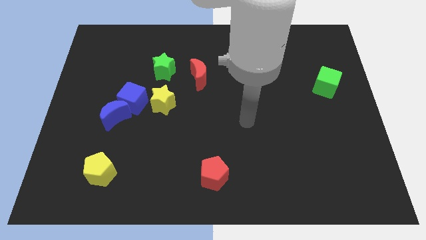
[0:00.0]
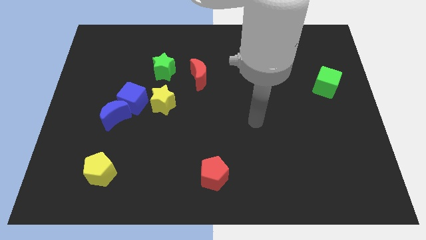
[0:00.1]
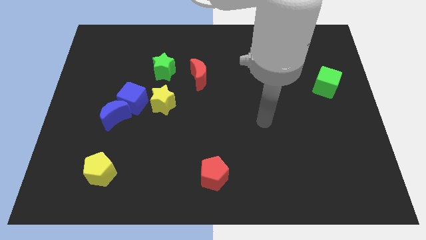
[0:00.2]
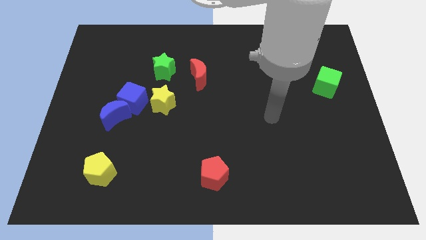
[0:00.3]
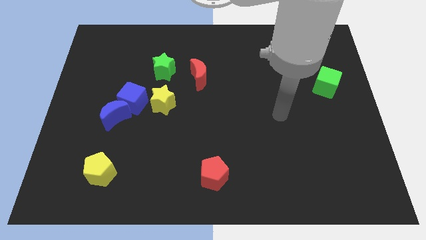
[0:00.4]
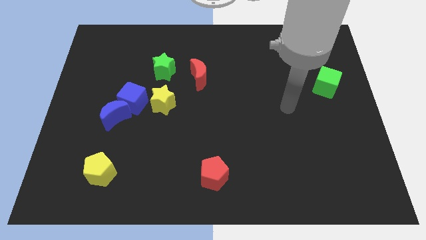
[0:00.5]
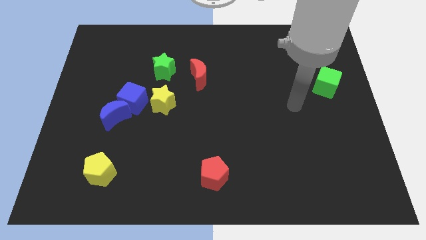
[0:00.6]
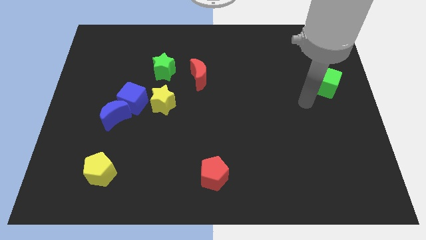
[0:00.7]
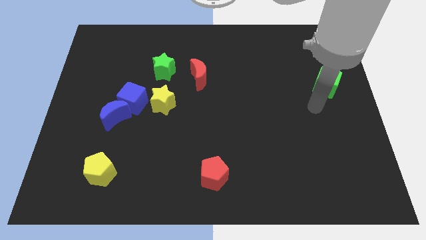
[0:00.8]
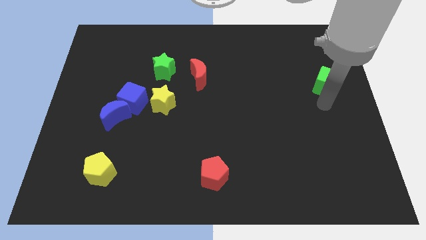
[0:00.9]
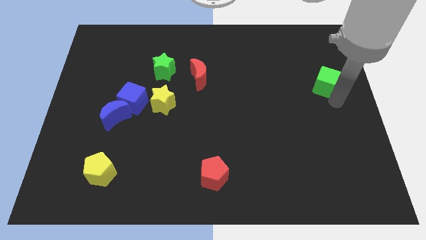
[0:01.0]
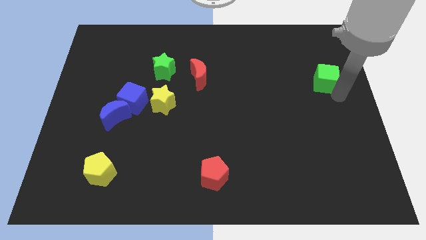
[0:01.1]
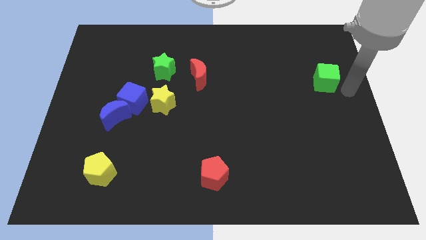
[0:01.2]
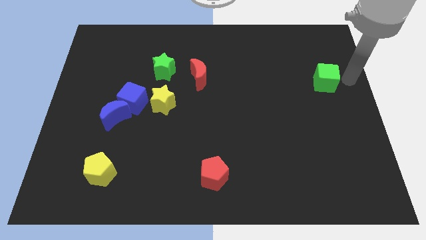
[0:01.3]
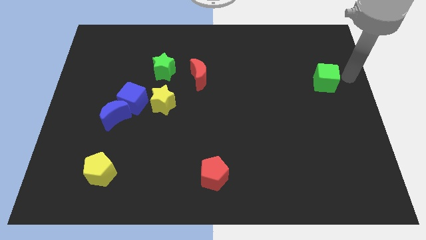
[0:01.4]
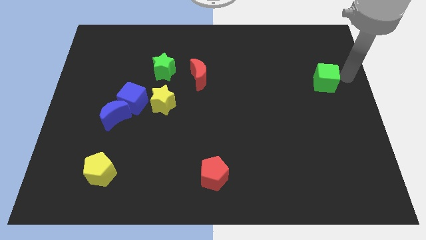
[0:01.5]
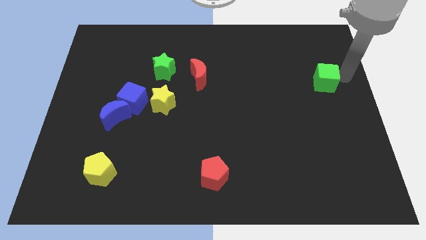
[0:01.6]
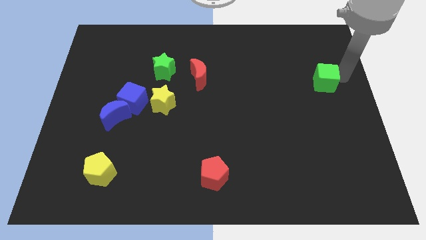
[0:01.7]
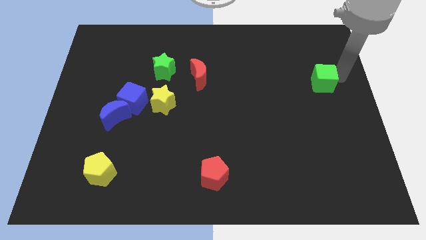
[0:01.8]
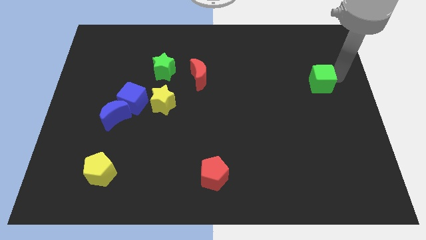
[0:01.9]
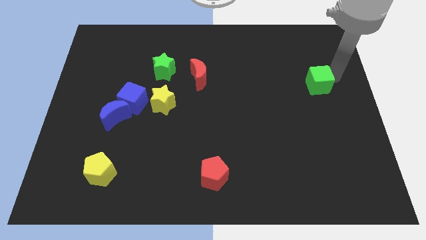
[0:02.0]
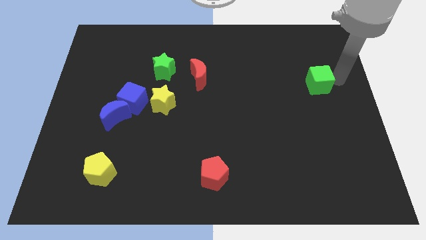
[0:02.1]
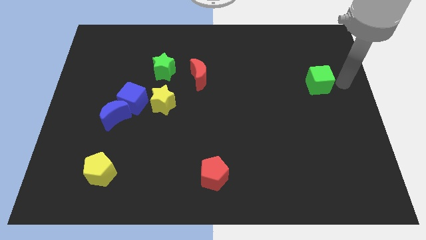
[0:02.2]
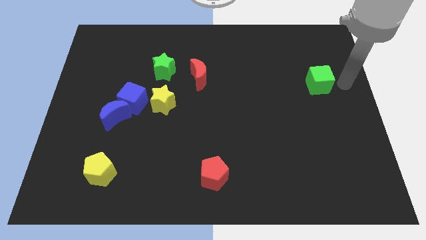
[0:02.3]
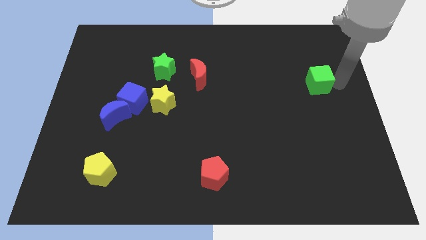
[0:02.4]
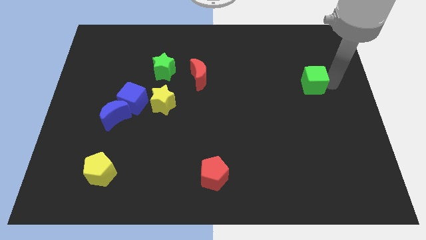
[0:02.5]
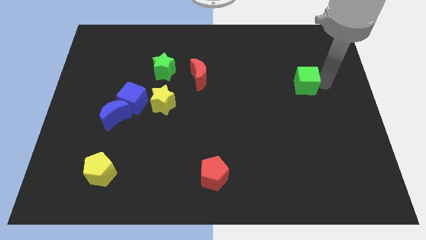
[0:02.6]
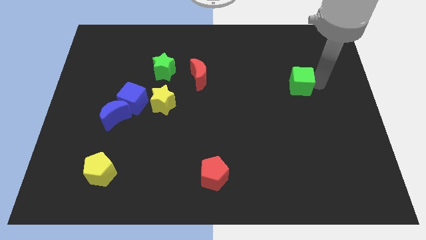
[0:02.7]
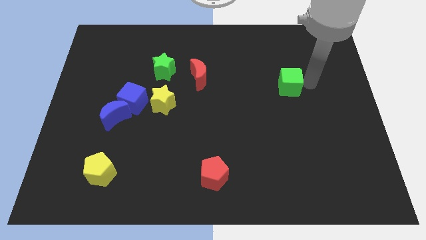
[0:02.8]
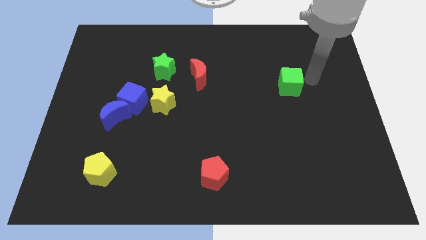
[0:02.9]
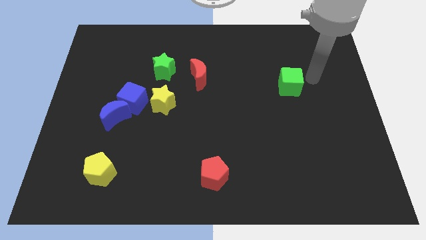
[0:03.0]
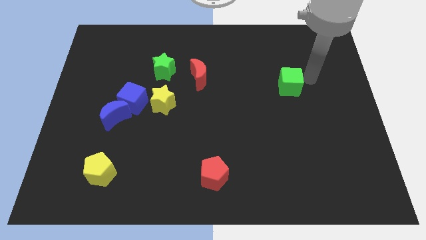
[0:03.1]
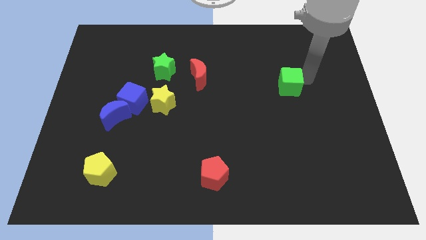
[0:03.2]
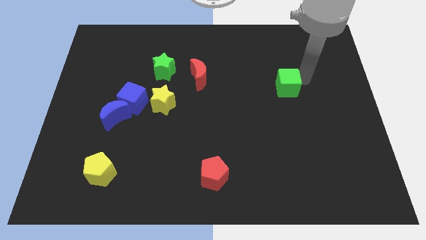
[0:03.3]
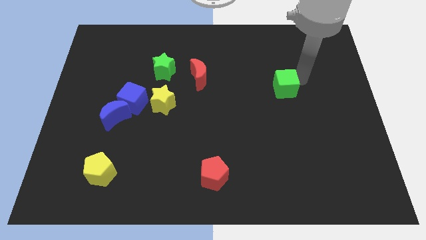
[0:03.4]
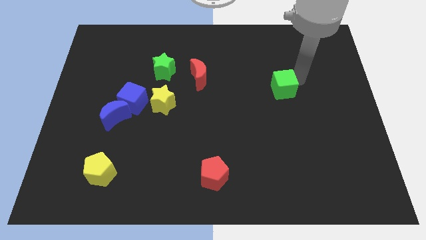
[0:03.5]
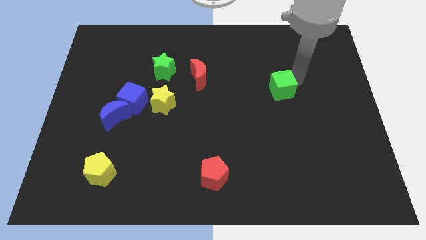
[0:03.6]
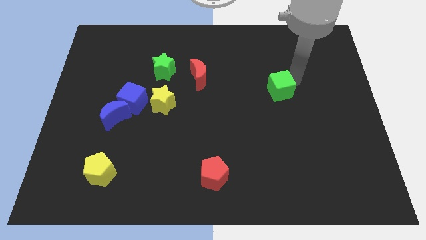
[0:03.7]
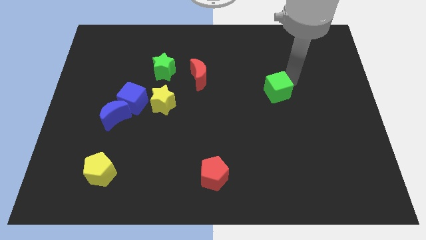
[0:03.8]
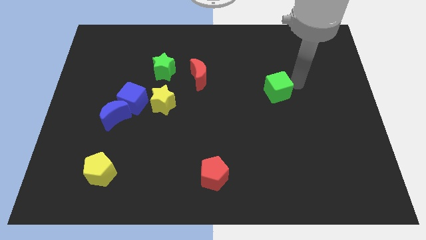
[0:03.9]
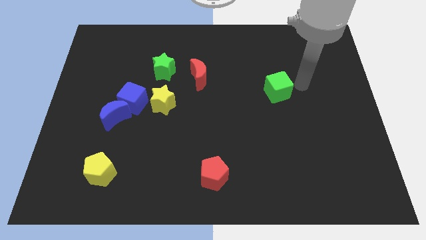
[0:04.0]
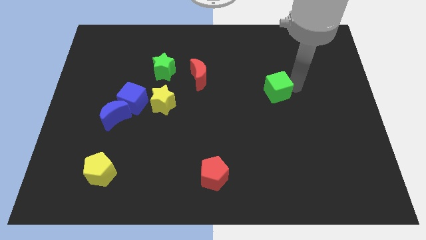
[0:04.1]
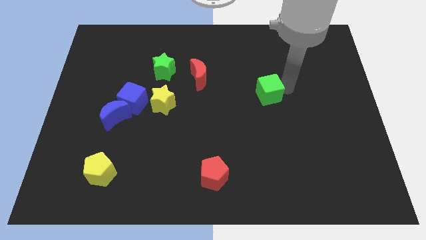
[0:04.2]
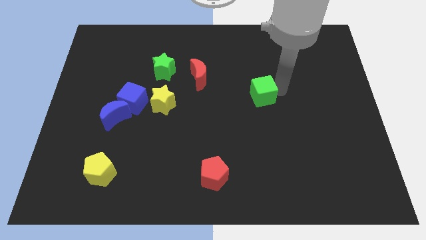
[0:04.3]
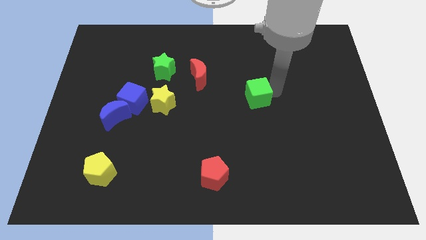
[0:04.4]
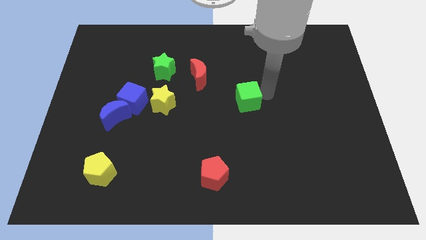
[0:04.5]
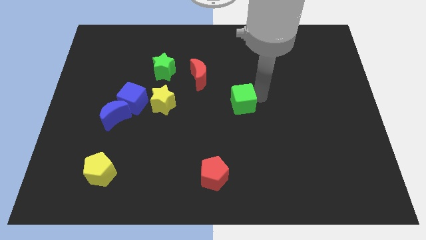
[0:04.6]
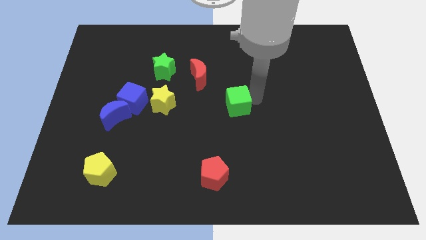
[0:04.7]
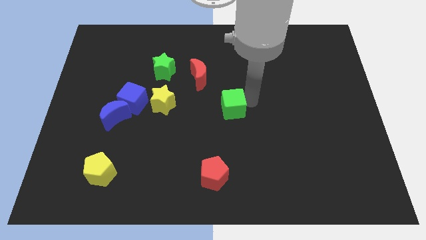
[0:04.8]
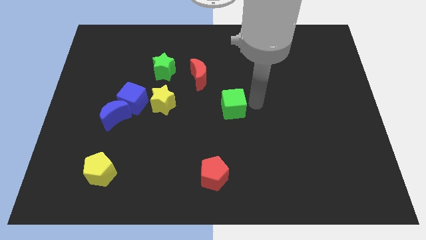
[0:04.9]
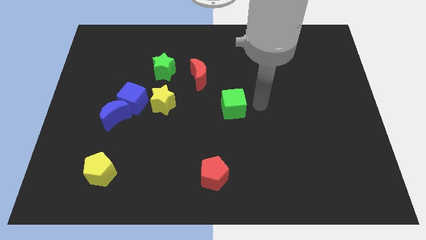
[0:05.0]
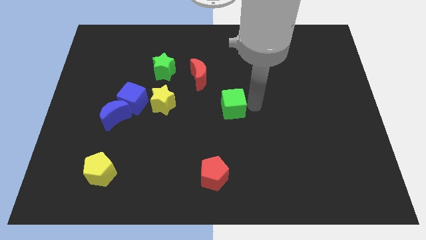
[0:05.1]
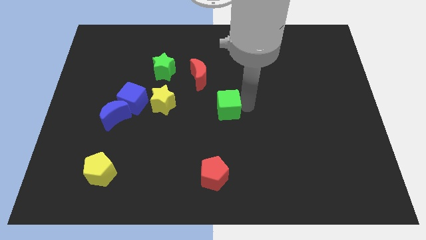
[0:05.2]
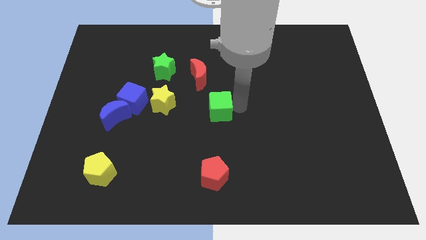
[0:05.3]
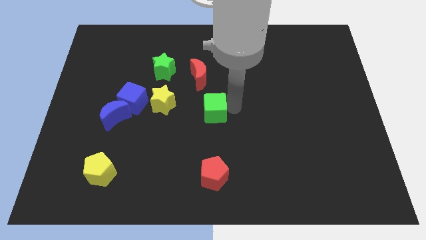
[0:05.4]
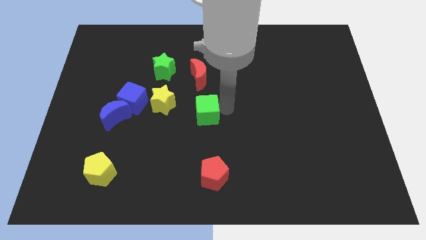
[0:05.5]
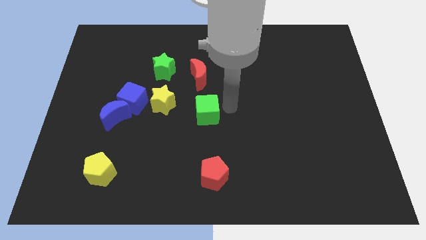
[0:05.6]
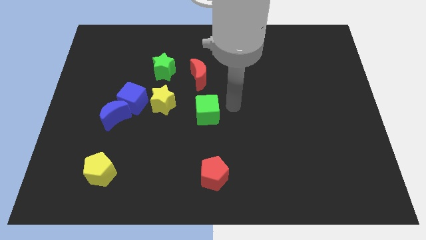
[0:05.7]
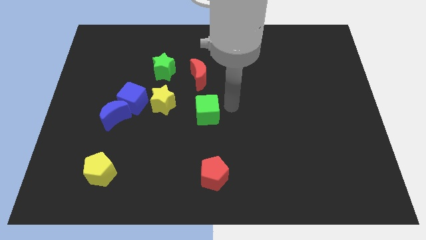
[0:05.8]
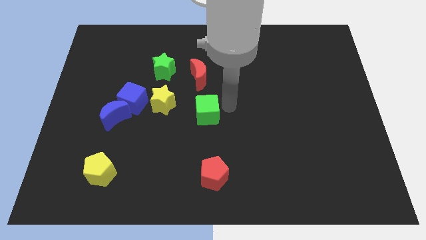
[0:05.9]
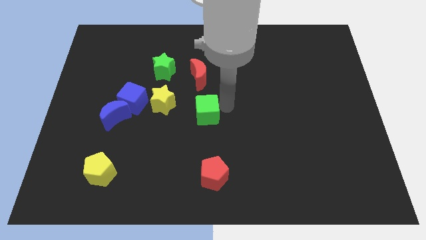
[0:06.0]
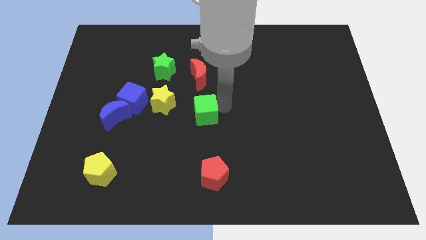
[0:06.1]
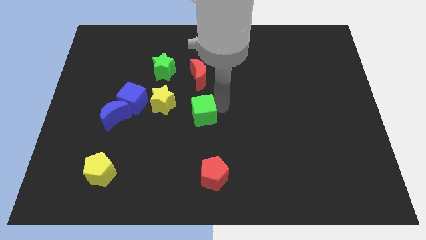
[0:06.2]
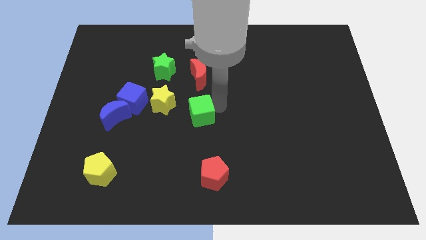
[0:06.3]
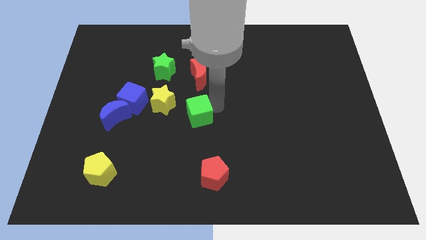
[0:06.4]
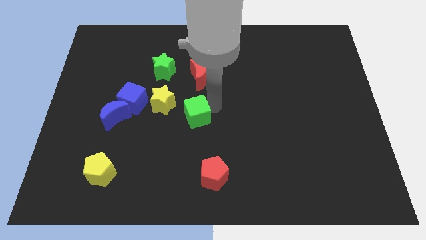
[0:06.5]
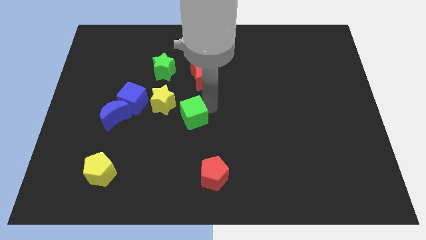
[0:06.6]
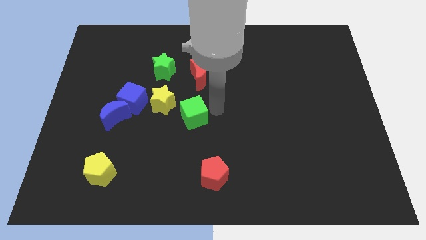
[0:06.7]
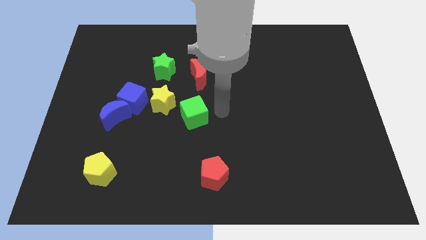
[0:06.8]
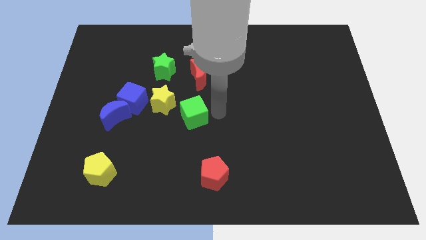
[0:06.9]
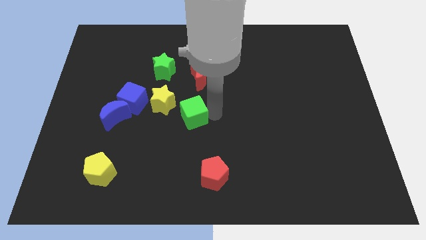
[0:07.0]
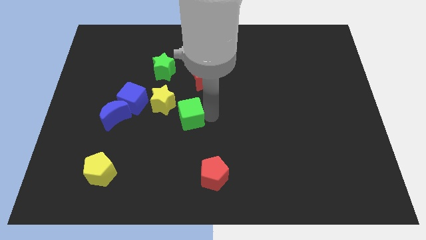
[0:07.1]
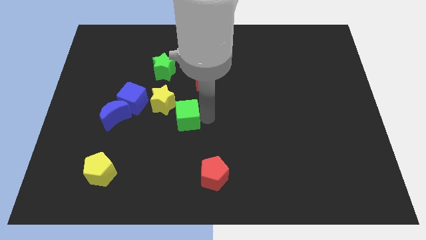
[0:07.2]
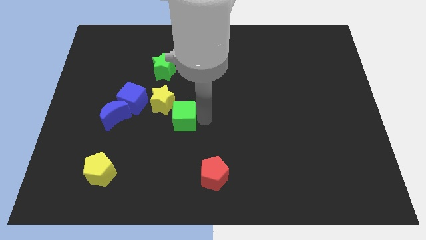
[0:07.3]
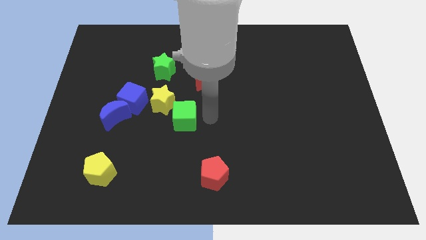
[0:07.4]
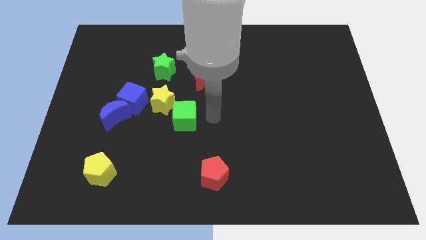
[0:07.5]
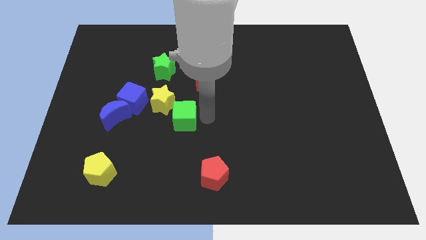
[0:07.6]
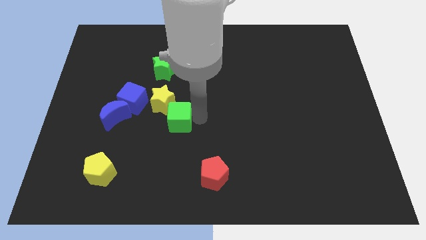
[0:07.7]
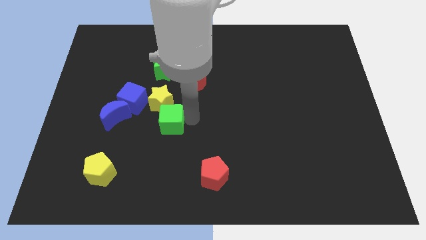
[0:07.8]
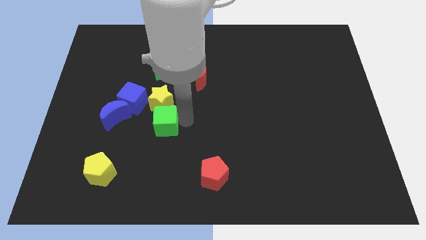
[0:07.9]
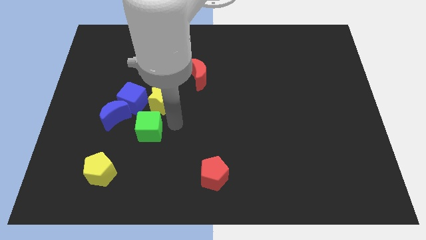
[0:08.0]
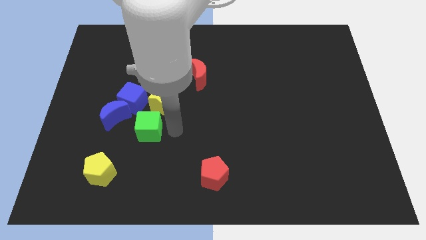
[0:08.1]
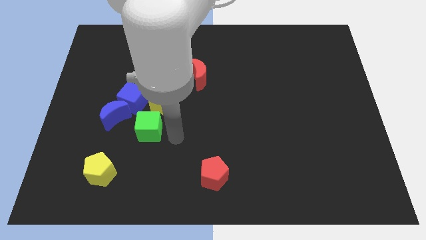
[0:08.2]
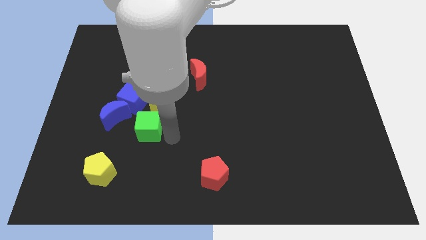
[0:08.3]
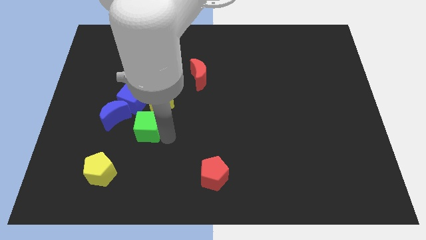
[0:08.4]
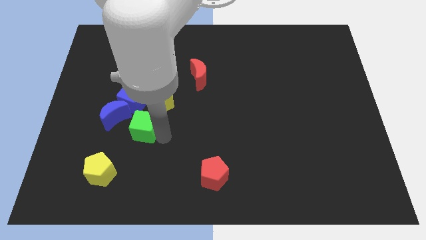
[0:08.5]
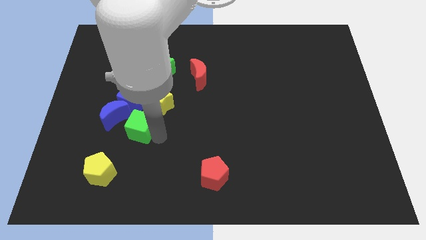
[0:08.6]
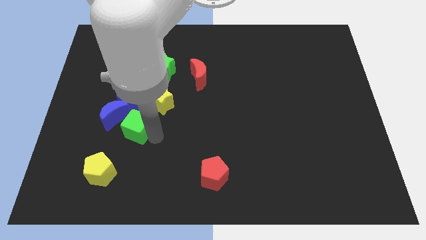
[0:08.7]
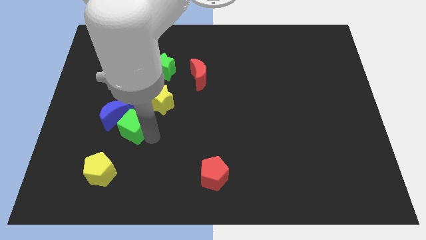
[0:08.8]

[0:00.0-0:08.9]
put the green cube to the blue moon
